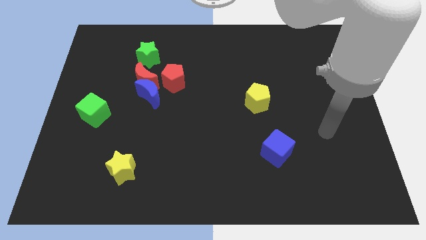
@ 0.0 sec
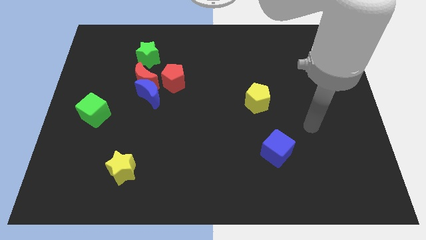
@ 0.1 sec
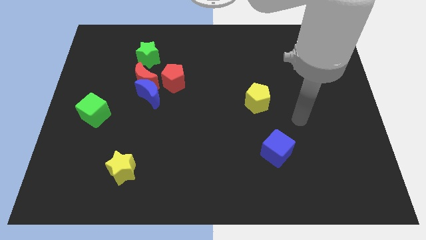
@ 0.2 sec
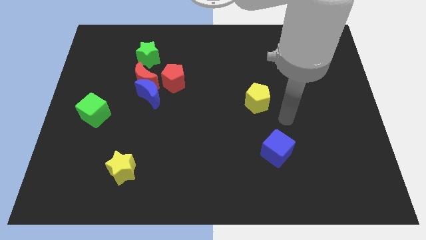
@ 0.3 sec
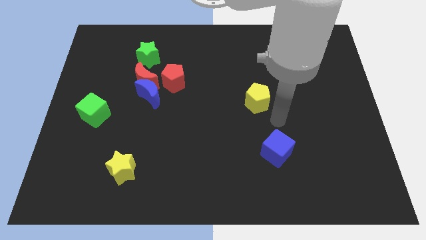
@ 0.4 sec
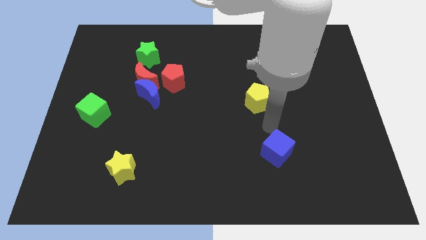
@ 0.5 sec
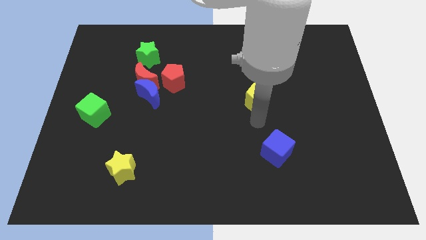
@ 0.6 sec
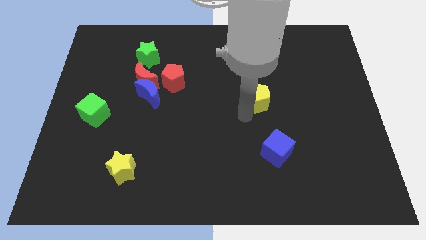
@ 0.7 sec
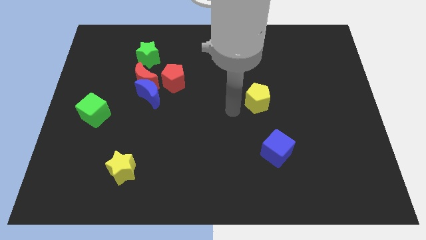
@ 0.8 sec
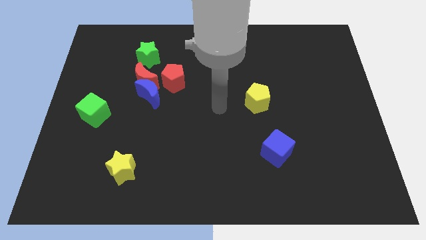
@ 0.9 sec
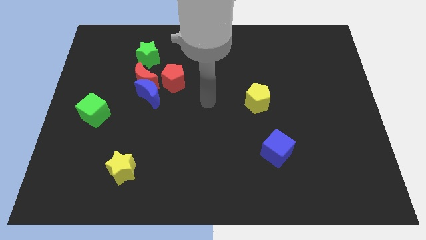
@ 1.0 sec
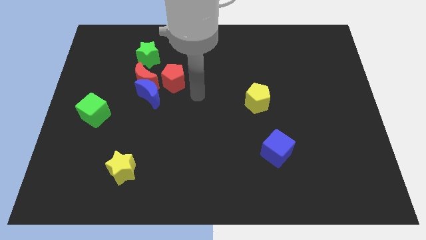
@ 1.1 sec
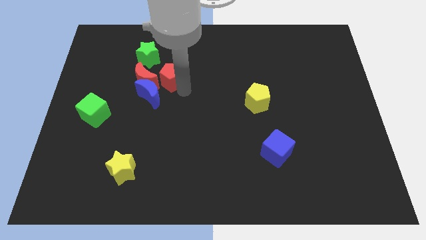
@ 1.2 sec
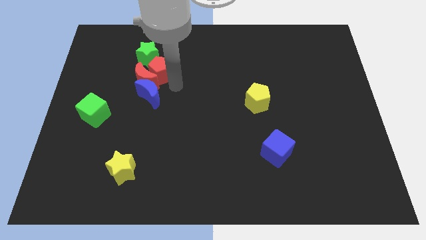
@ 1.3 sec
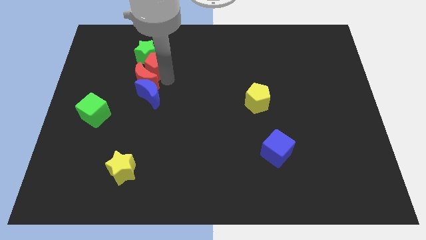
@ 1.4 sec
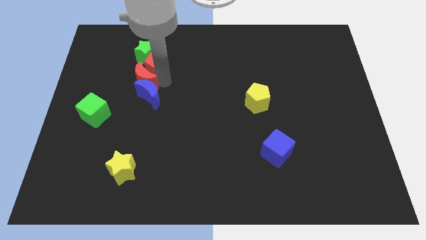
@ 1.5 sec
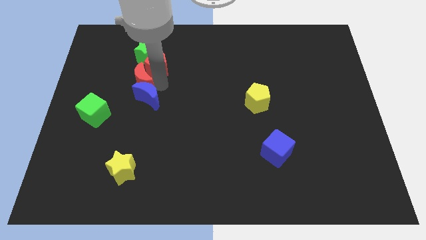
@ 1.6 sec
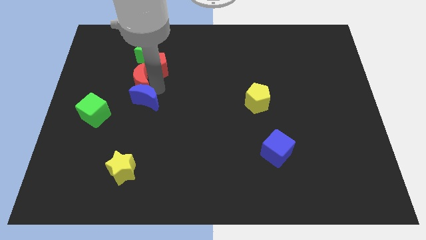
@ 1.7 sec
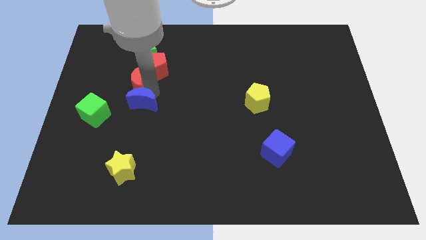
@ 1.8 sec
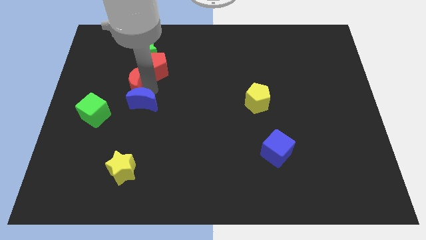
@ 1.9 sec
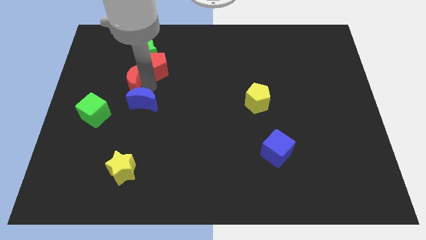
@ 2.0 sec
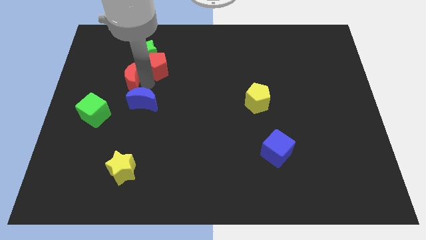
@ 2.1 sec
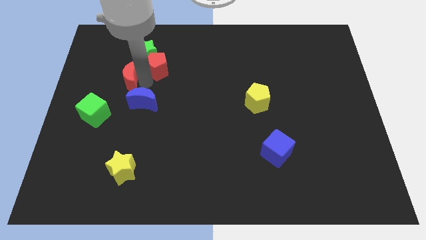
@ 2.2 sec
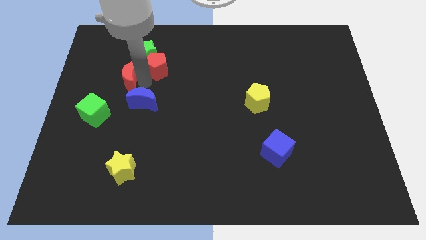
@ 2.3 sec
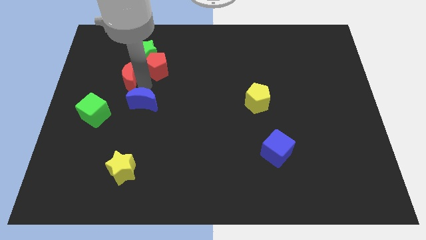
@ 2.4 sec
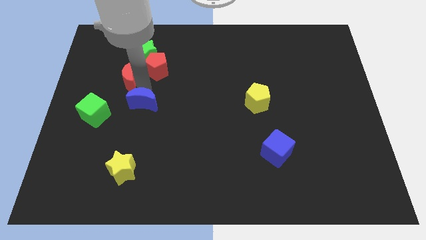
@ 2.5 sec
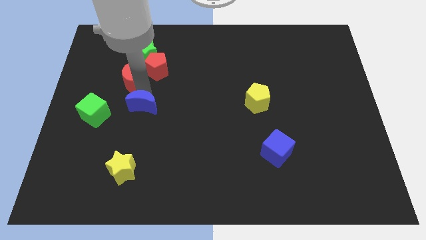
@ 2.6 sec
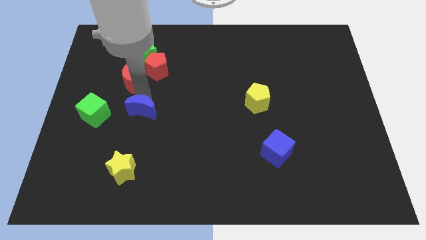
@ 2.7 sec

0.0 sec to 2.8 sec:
move the blue moon away from the red moon and red pentagon

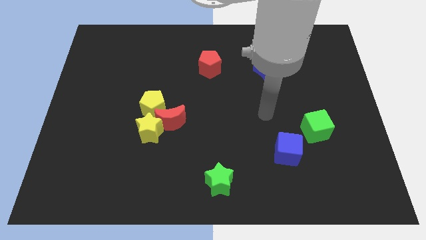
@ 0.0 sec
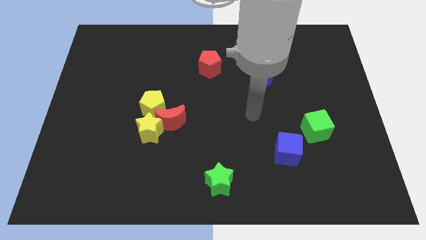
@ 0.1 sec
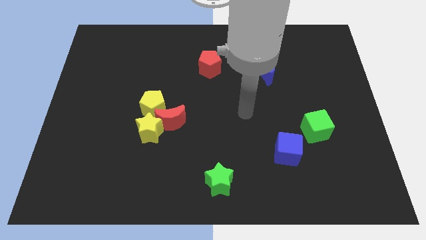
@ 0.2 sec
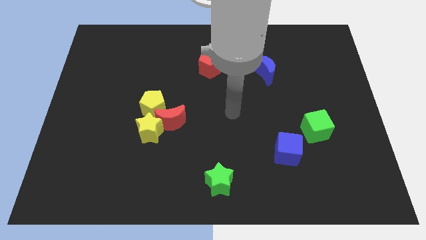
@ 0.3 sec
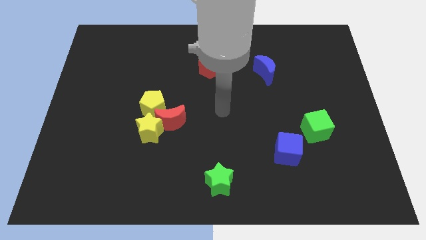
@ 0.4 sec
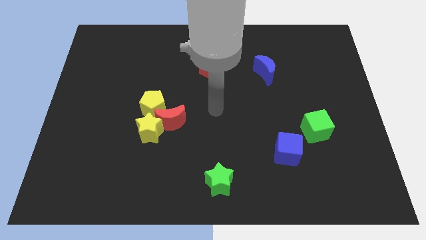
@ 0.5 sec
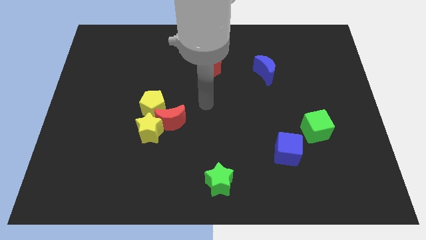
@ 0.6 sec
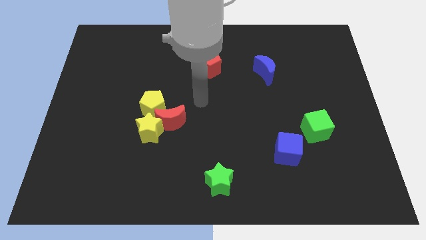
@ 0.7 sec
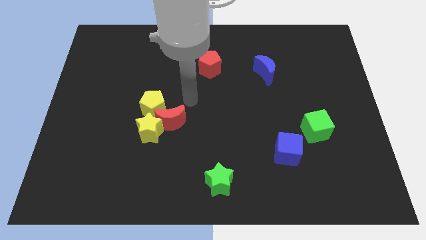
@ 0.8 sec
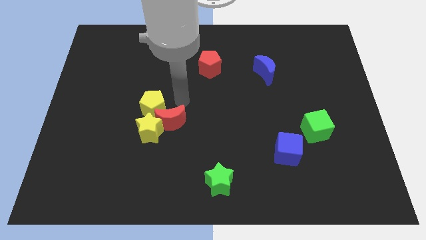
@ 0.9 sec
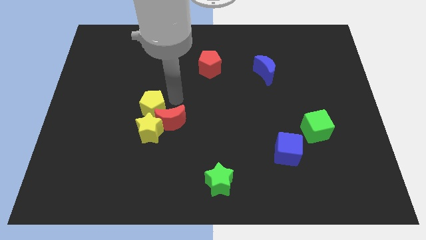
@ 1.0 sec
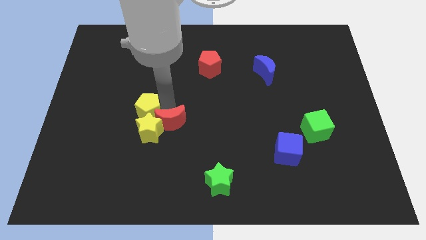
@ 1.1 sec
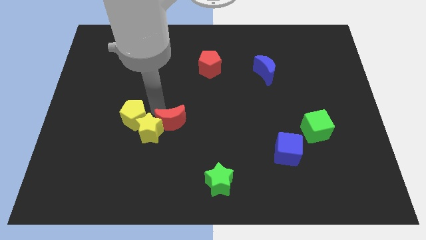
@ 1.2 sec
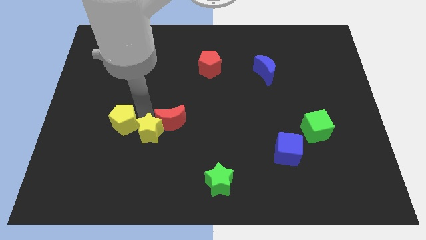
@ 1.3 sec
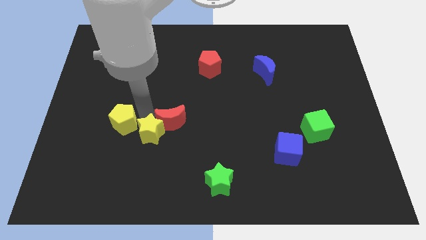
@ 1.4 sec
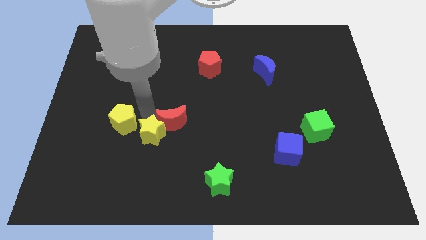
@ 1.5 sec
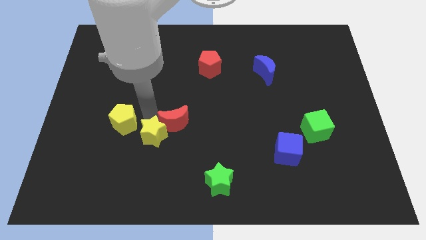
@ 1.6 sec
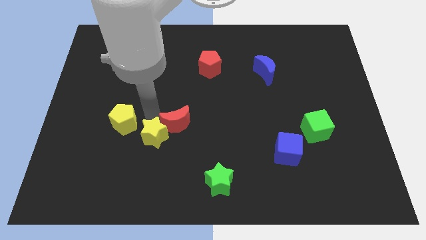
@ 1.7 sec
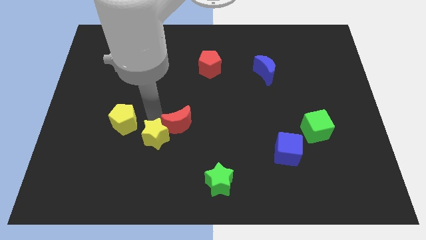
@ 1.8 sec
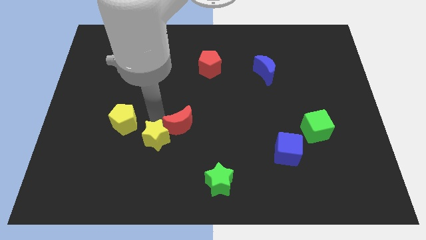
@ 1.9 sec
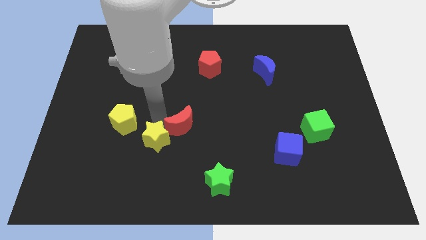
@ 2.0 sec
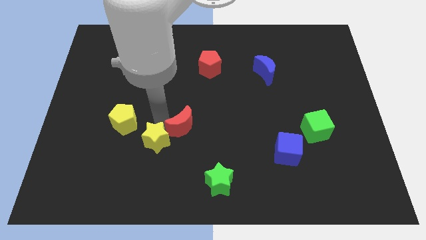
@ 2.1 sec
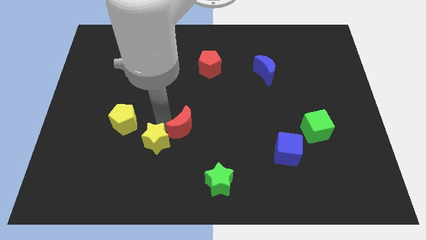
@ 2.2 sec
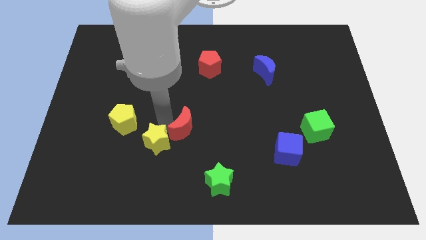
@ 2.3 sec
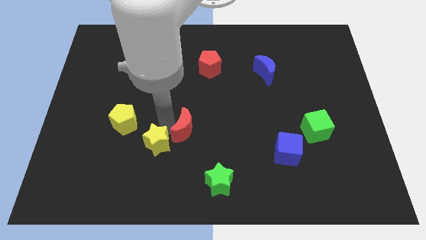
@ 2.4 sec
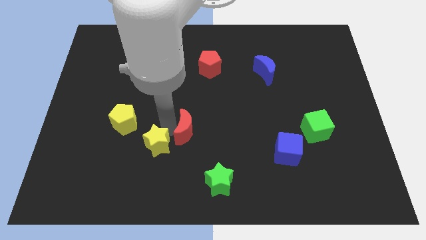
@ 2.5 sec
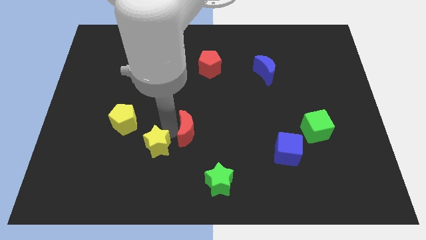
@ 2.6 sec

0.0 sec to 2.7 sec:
move the red moon away from the yellow star and yellow pentagon

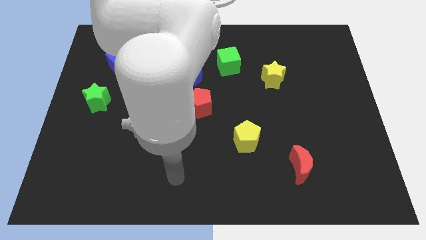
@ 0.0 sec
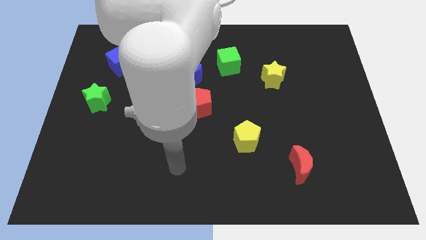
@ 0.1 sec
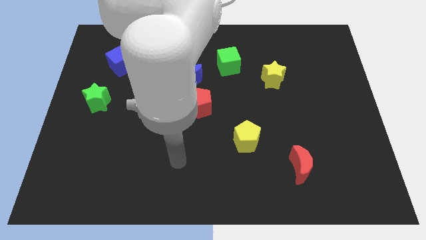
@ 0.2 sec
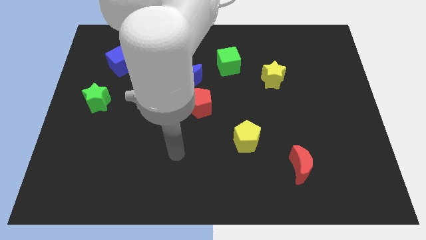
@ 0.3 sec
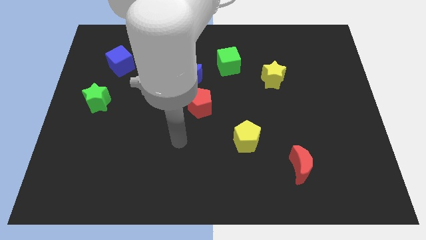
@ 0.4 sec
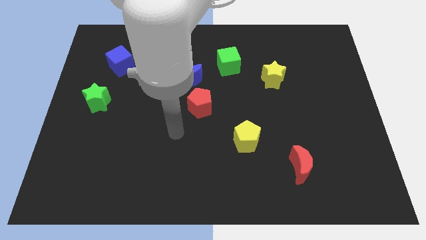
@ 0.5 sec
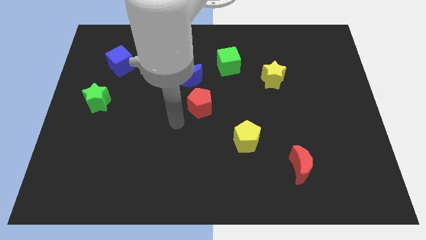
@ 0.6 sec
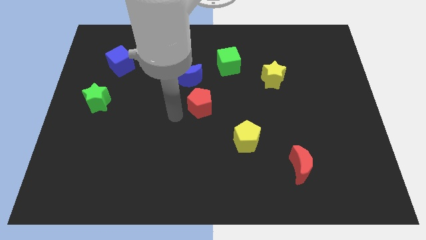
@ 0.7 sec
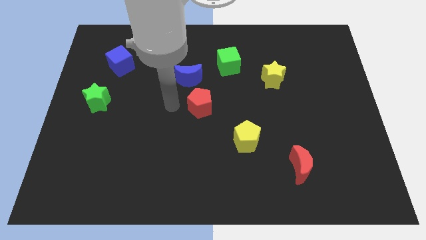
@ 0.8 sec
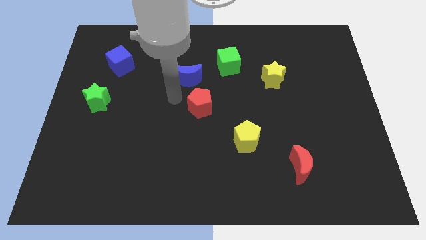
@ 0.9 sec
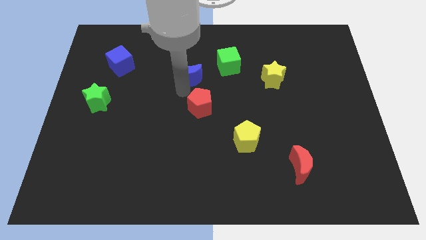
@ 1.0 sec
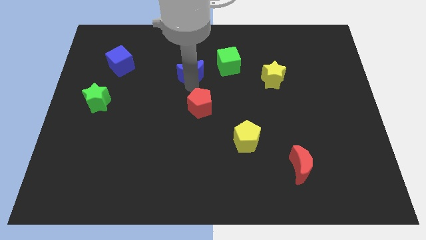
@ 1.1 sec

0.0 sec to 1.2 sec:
separate the red pentagon from the blue moon

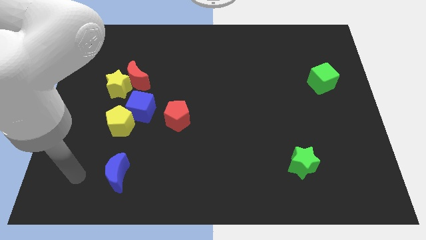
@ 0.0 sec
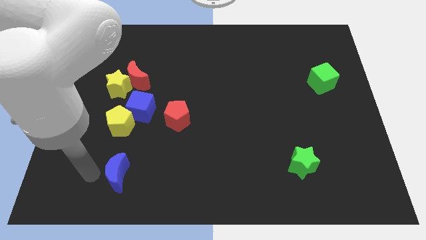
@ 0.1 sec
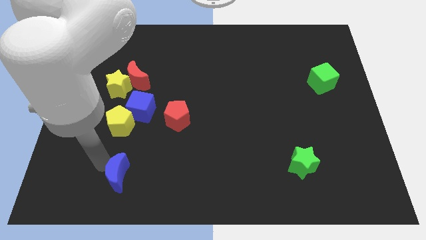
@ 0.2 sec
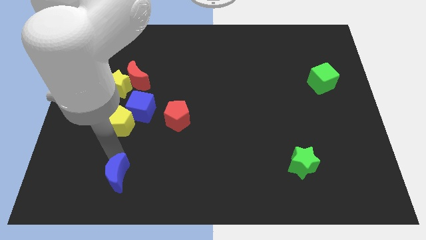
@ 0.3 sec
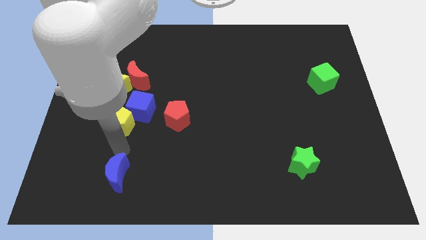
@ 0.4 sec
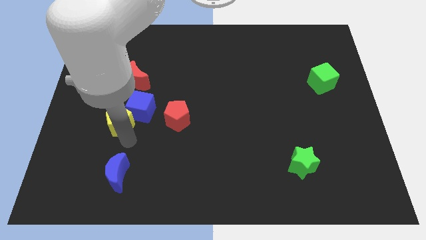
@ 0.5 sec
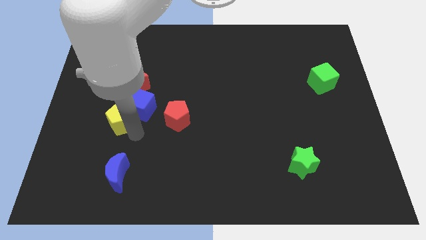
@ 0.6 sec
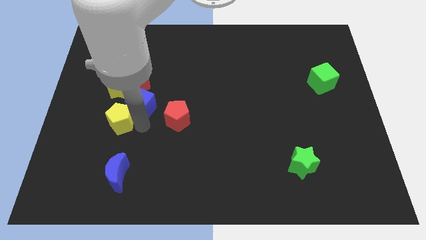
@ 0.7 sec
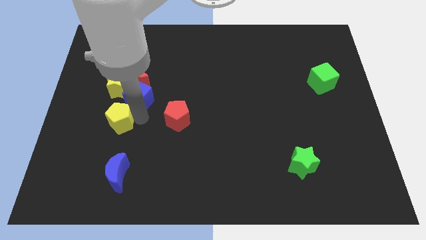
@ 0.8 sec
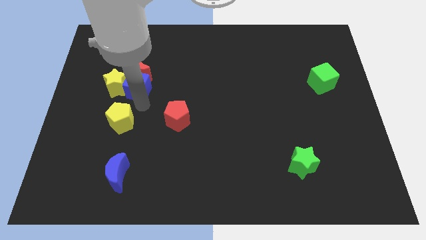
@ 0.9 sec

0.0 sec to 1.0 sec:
move the yellow pentagon away from the blue cube

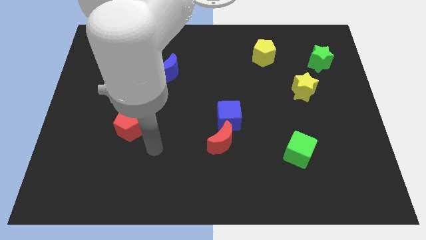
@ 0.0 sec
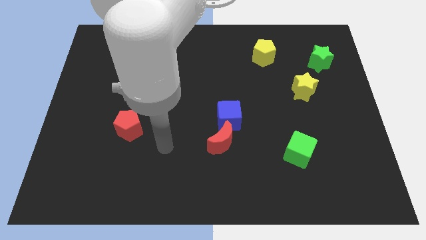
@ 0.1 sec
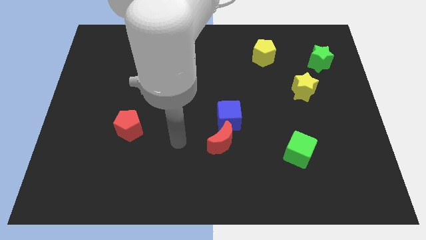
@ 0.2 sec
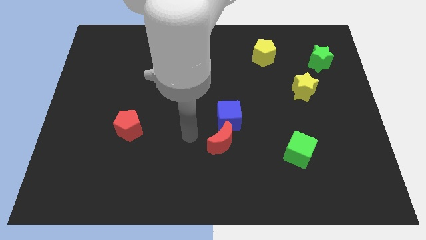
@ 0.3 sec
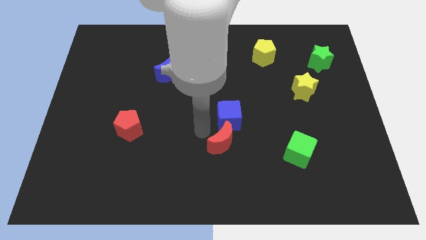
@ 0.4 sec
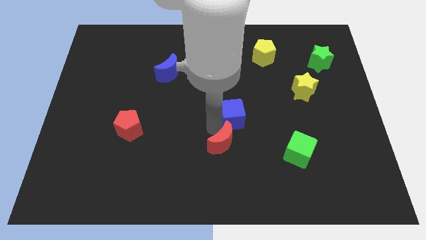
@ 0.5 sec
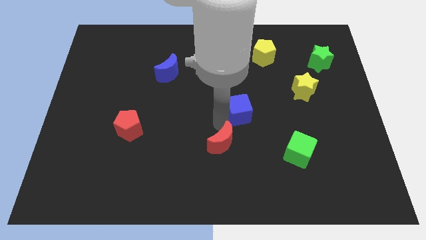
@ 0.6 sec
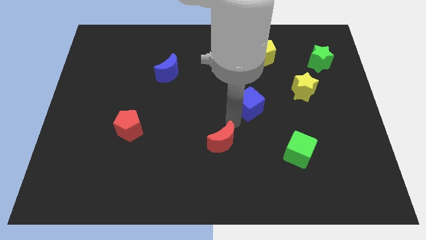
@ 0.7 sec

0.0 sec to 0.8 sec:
pull the red moon apart from the blue cube

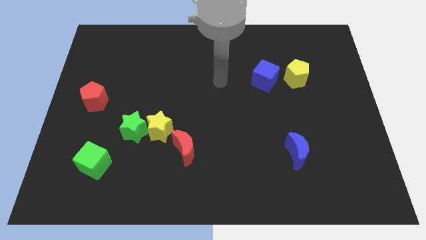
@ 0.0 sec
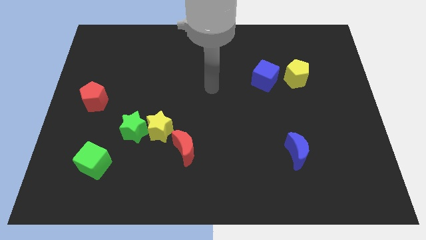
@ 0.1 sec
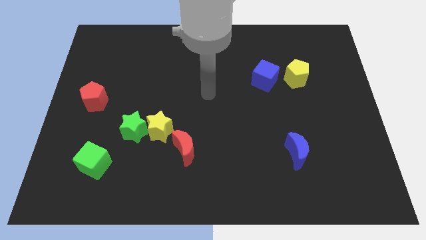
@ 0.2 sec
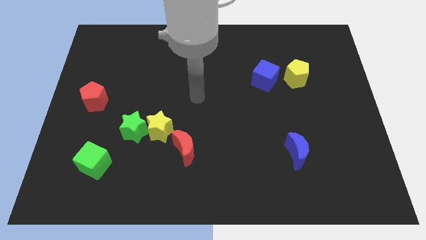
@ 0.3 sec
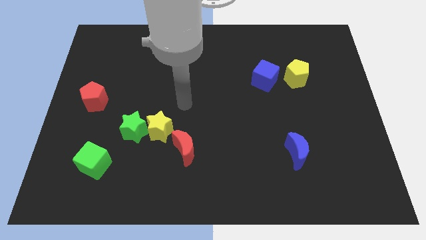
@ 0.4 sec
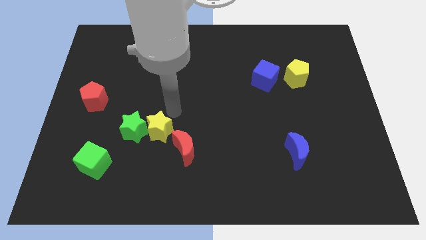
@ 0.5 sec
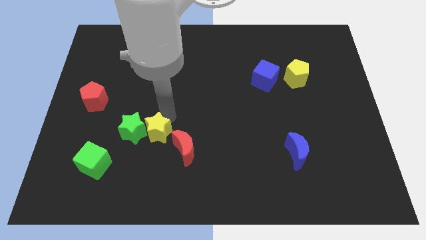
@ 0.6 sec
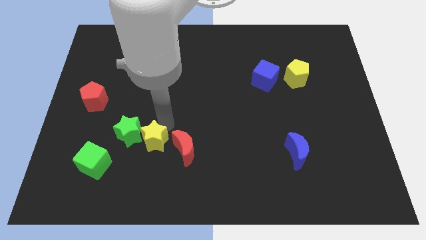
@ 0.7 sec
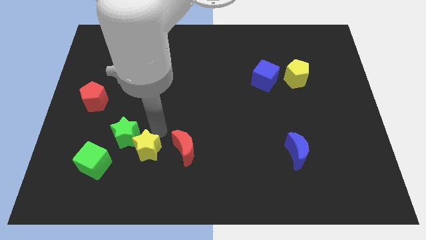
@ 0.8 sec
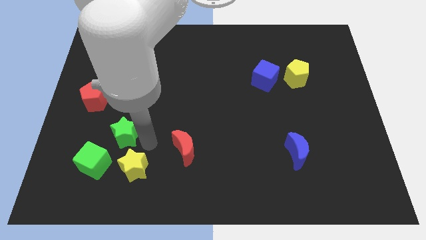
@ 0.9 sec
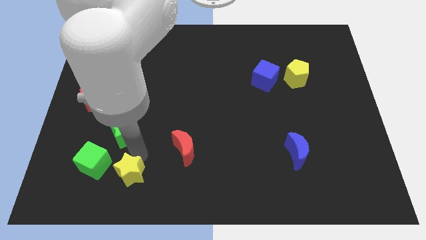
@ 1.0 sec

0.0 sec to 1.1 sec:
move the green star away from the yellow star
